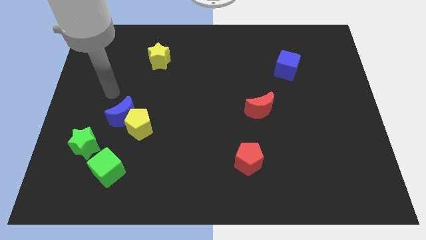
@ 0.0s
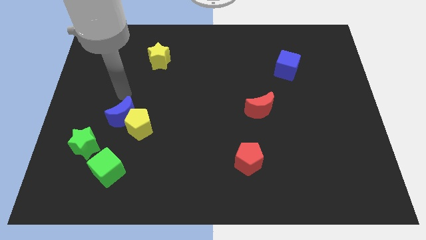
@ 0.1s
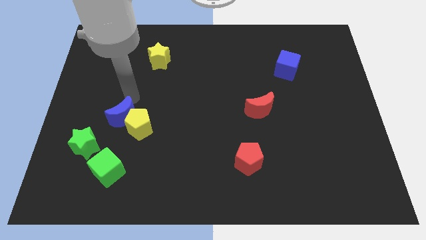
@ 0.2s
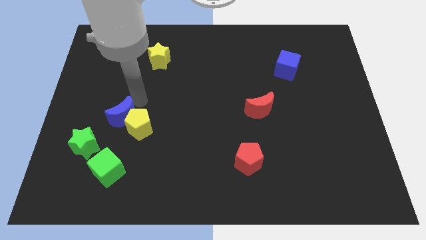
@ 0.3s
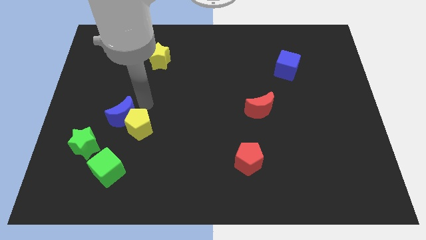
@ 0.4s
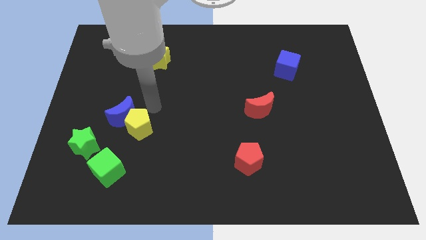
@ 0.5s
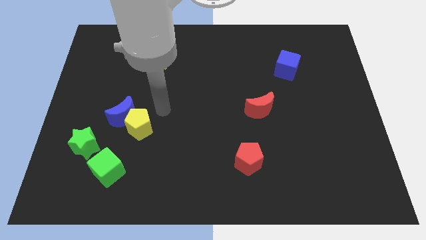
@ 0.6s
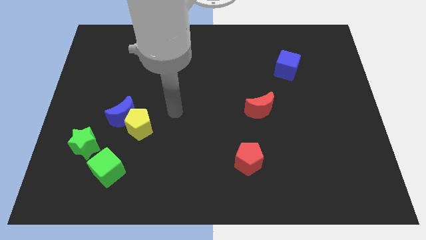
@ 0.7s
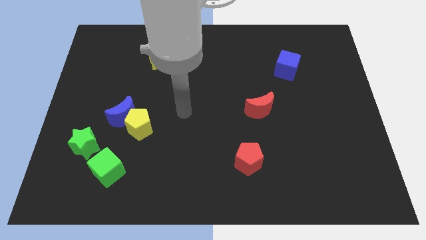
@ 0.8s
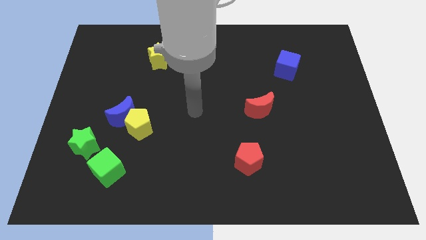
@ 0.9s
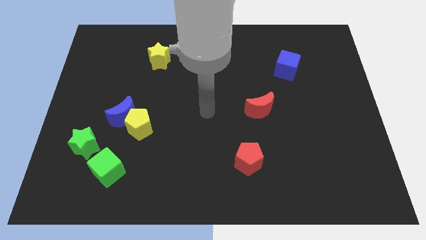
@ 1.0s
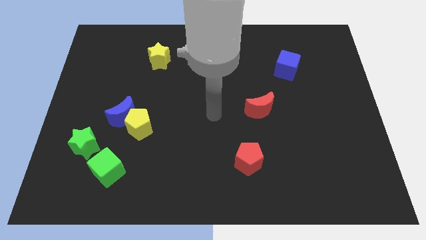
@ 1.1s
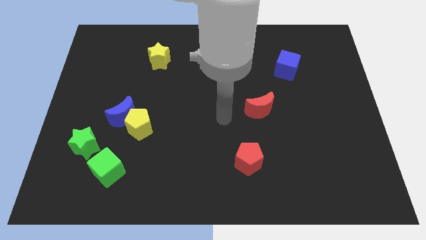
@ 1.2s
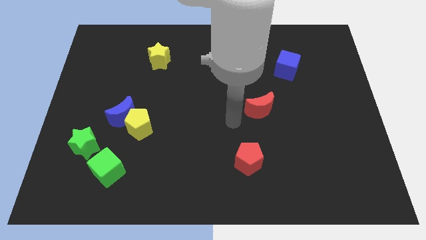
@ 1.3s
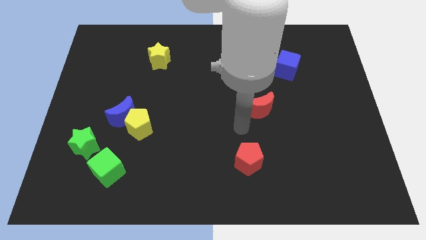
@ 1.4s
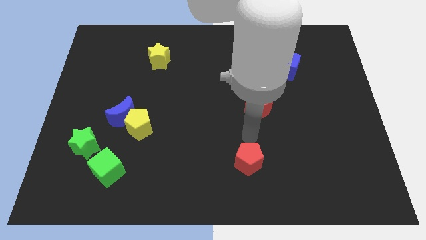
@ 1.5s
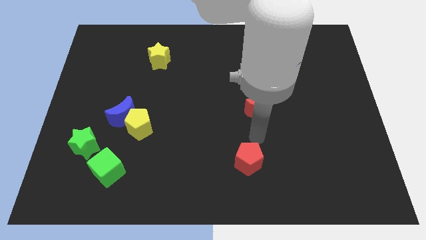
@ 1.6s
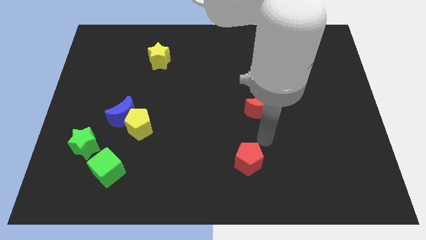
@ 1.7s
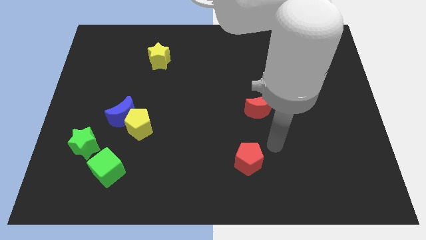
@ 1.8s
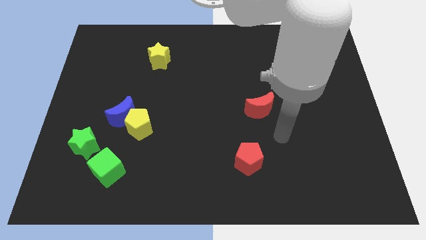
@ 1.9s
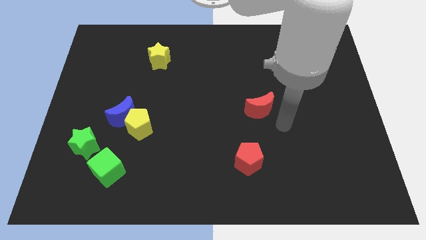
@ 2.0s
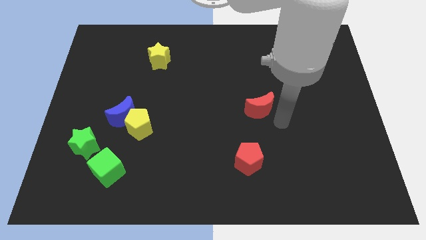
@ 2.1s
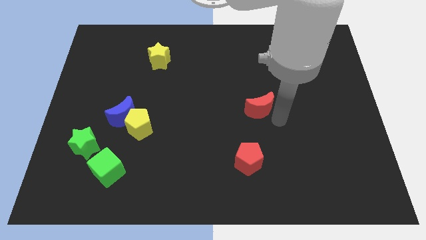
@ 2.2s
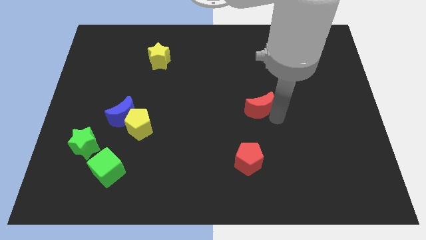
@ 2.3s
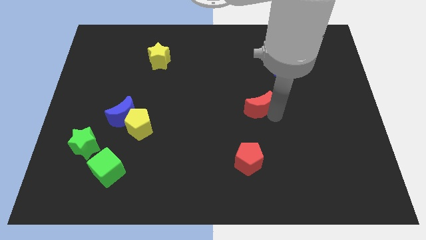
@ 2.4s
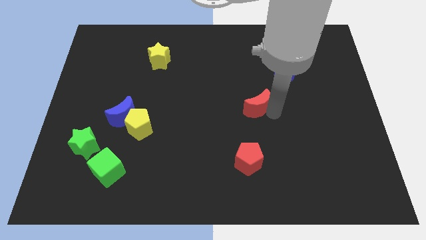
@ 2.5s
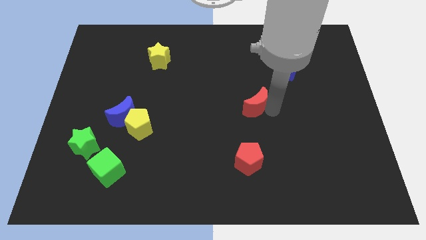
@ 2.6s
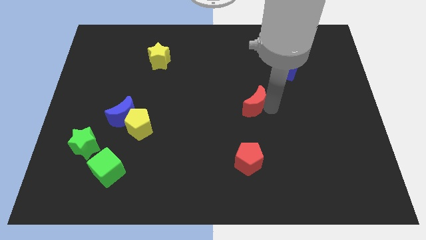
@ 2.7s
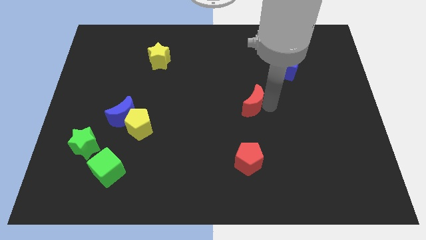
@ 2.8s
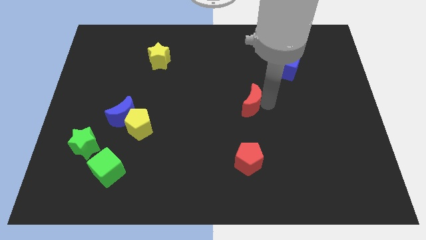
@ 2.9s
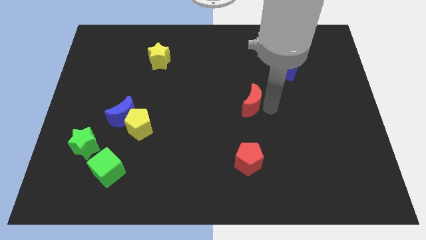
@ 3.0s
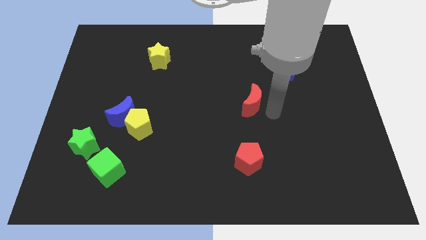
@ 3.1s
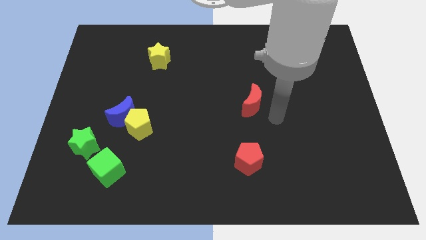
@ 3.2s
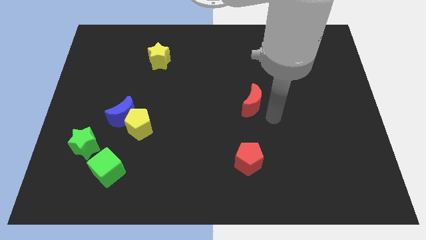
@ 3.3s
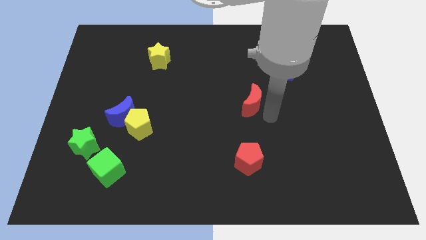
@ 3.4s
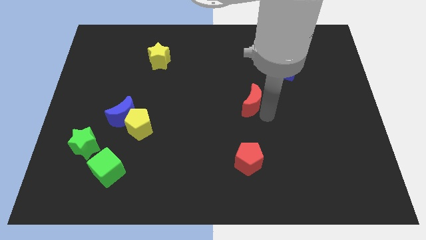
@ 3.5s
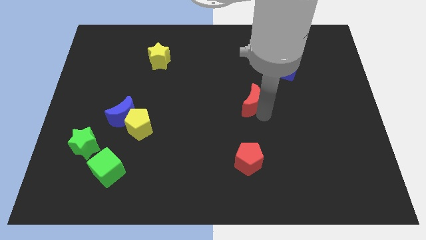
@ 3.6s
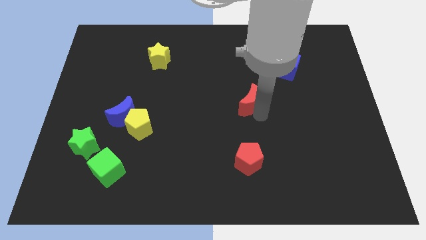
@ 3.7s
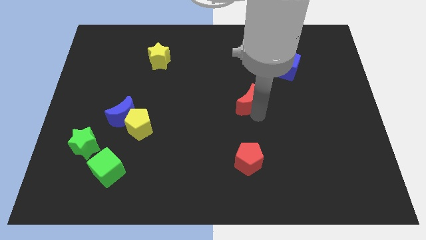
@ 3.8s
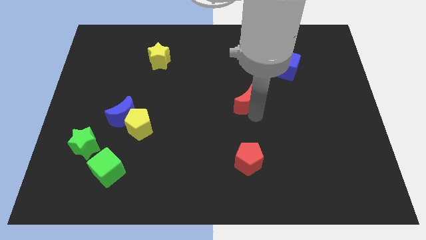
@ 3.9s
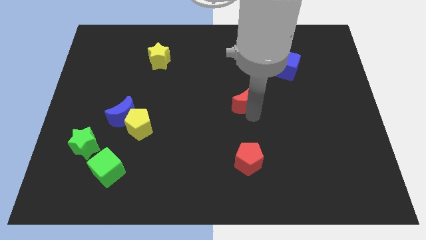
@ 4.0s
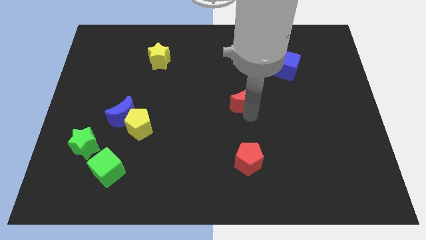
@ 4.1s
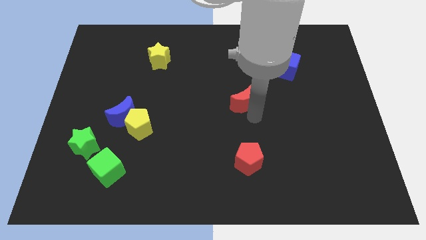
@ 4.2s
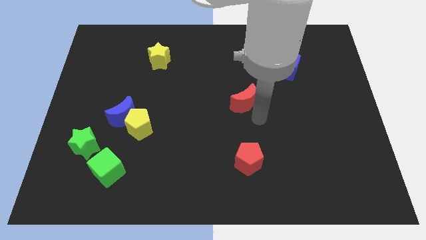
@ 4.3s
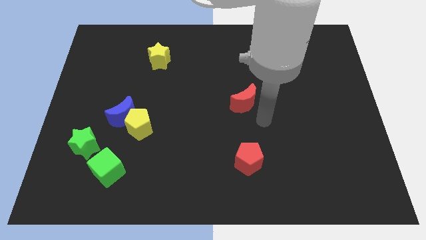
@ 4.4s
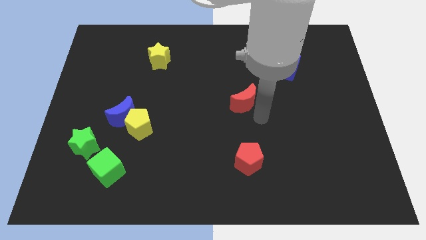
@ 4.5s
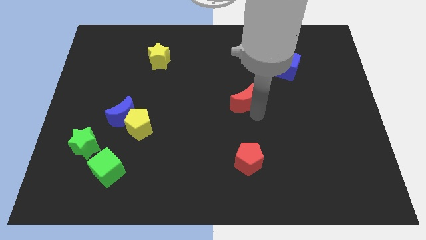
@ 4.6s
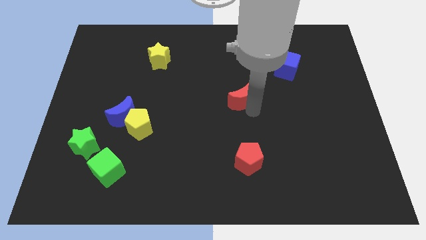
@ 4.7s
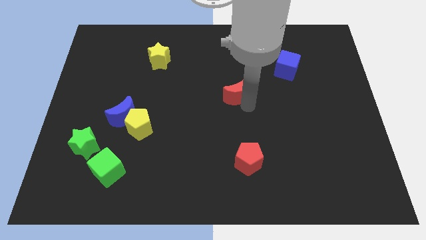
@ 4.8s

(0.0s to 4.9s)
move the red moon a little bit upwards and left diagonally

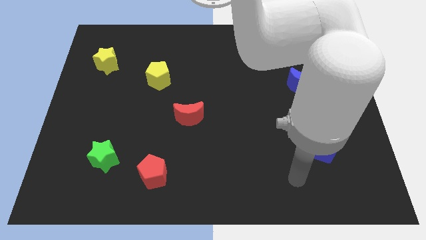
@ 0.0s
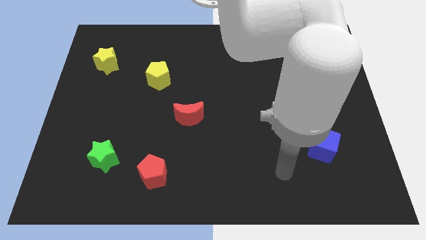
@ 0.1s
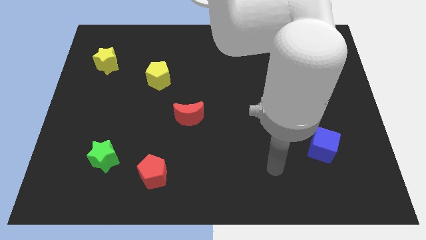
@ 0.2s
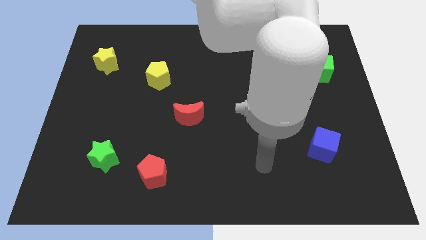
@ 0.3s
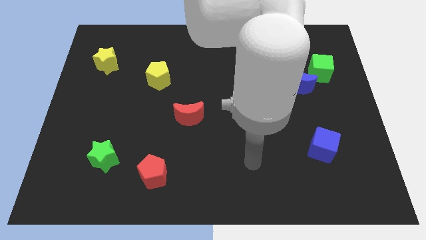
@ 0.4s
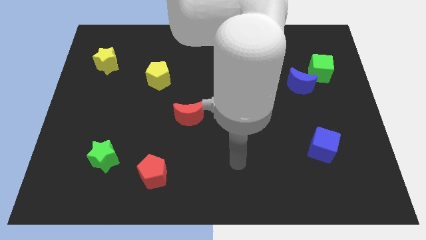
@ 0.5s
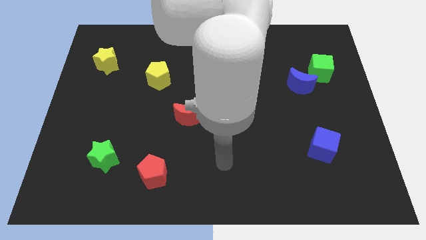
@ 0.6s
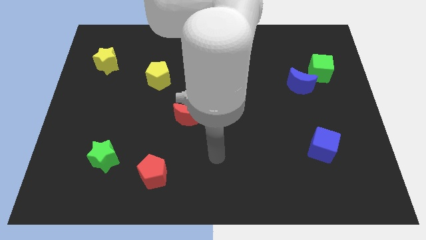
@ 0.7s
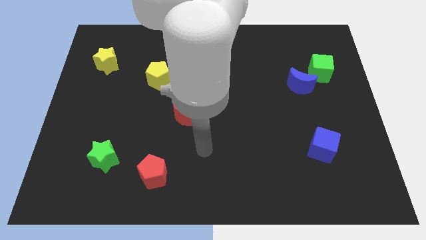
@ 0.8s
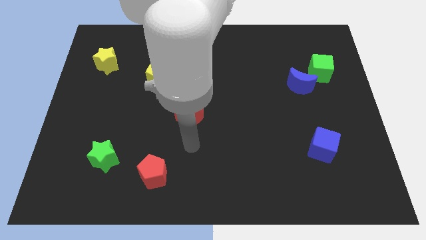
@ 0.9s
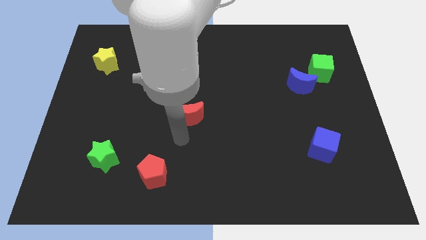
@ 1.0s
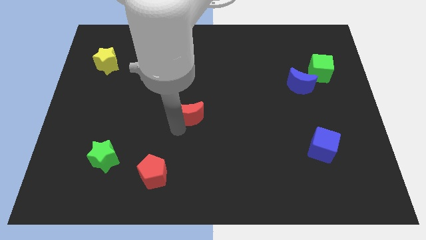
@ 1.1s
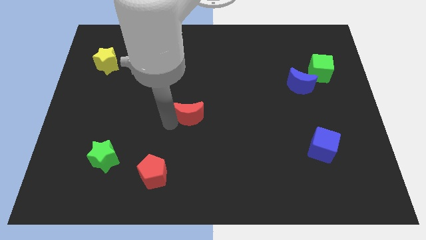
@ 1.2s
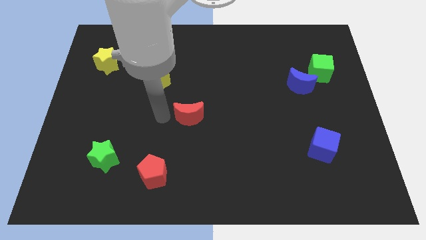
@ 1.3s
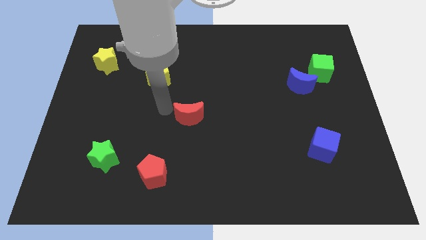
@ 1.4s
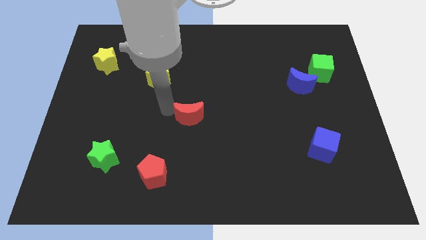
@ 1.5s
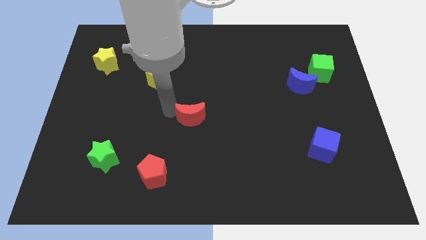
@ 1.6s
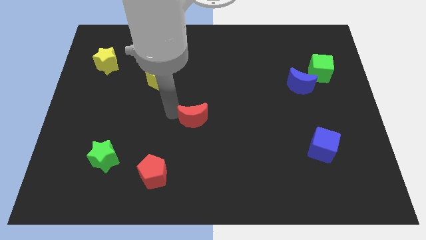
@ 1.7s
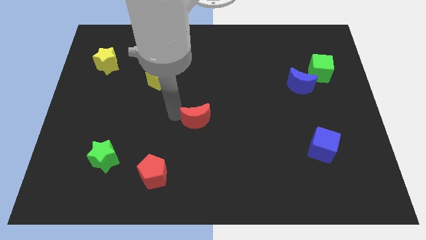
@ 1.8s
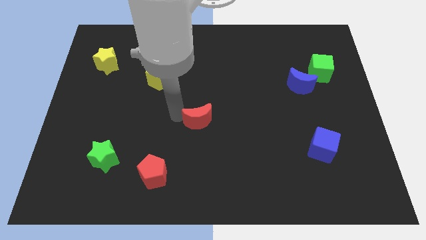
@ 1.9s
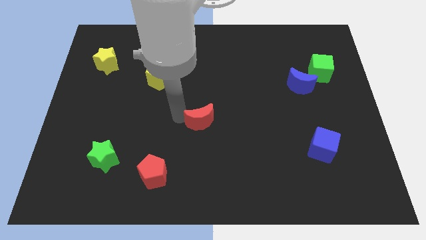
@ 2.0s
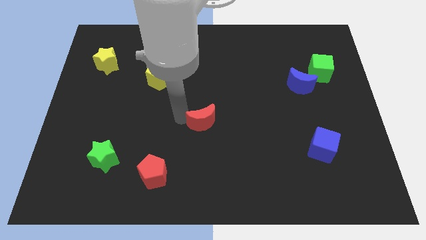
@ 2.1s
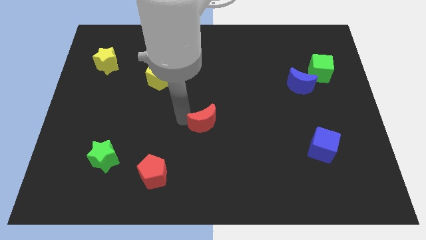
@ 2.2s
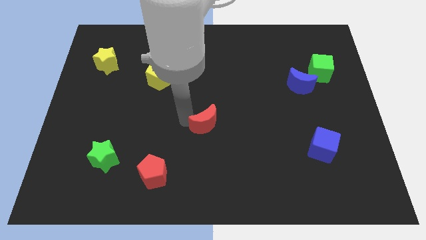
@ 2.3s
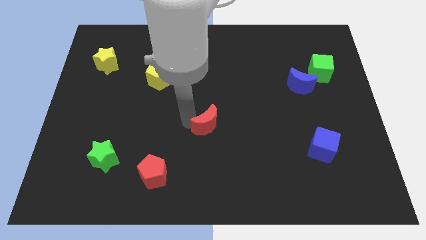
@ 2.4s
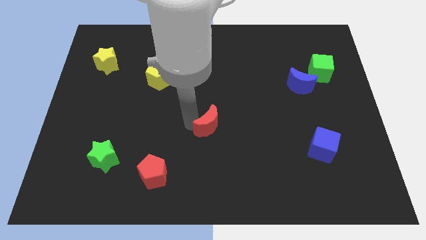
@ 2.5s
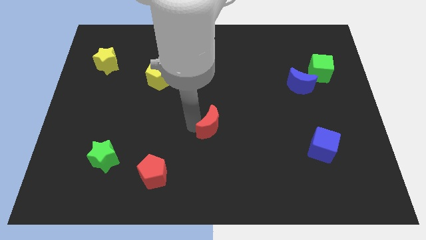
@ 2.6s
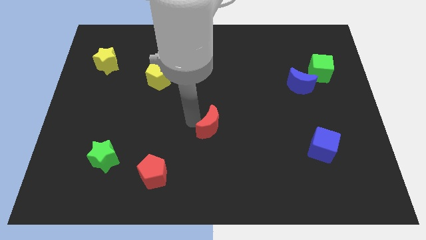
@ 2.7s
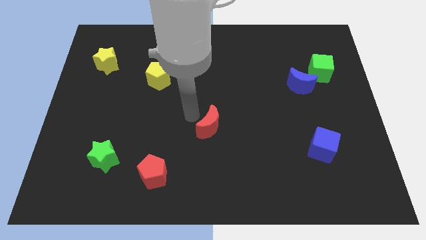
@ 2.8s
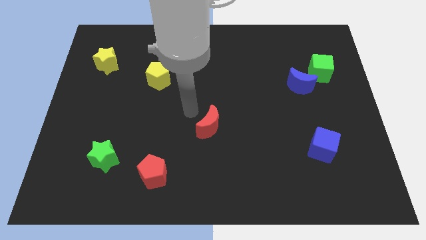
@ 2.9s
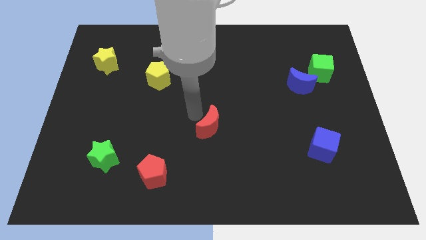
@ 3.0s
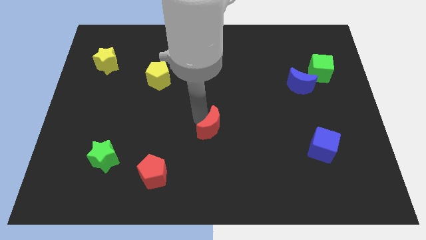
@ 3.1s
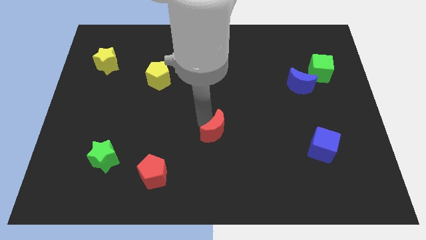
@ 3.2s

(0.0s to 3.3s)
slide the red moon downwards and right a bit

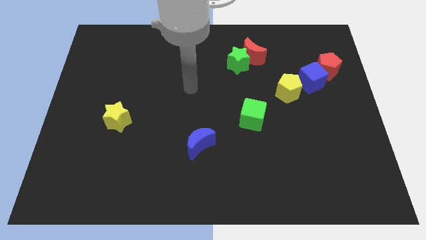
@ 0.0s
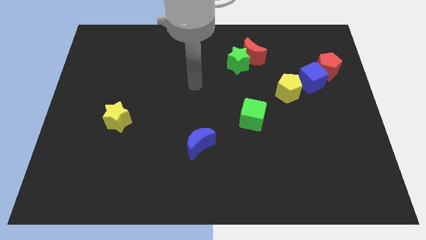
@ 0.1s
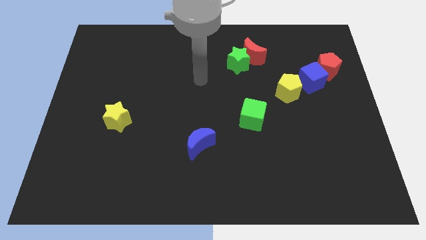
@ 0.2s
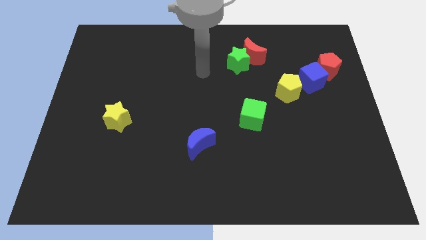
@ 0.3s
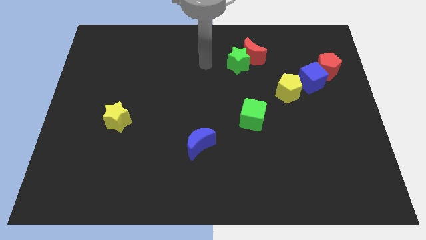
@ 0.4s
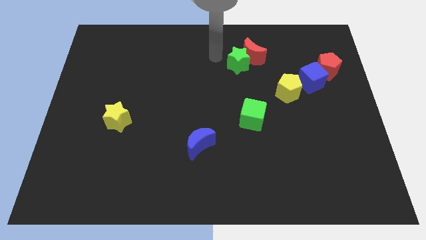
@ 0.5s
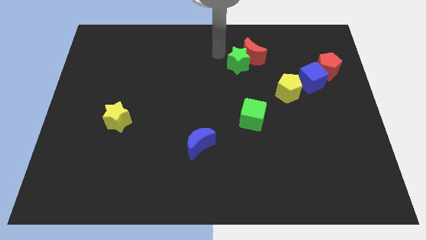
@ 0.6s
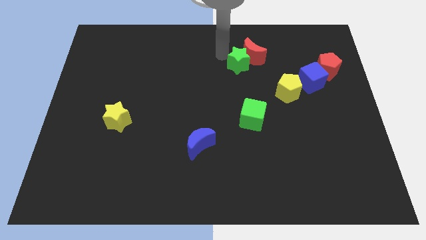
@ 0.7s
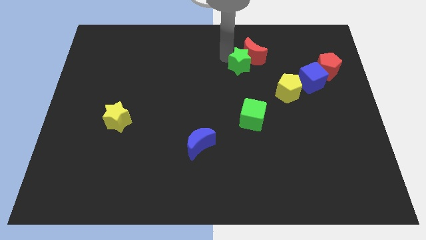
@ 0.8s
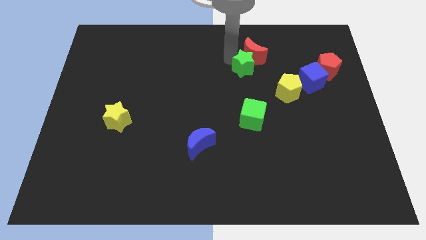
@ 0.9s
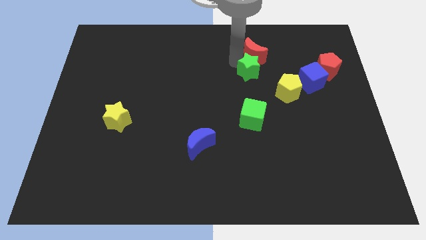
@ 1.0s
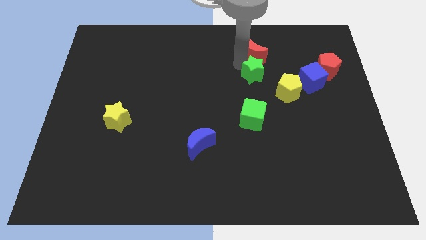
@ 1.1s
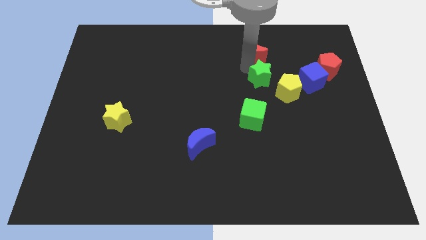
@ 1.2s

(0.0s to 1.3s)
slide the green star a bit downwards and then right
